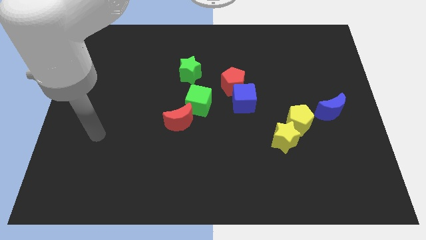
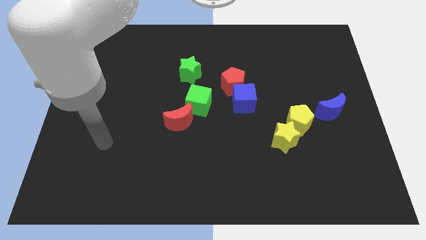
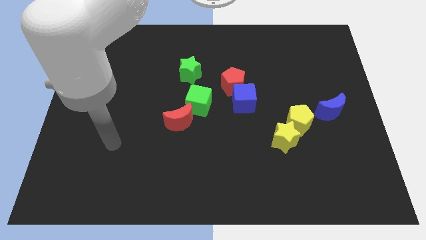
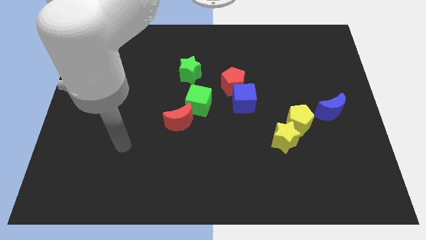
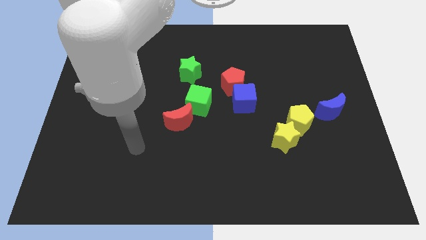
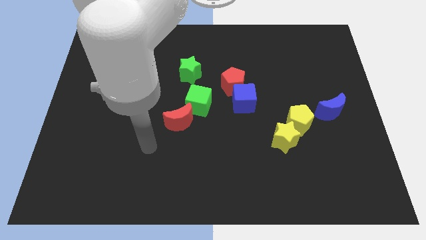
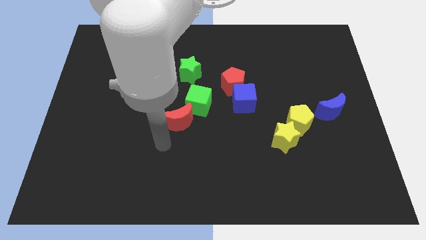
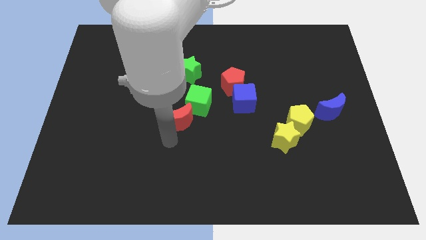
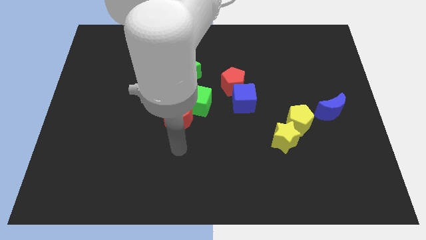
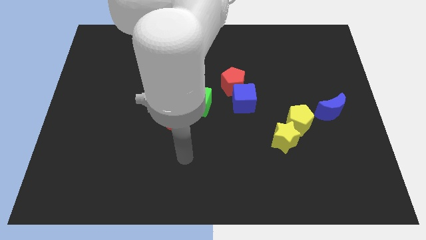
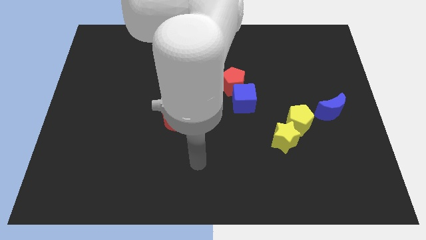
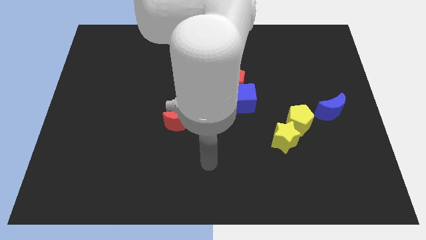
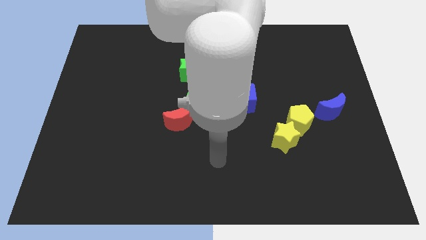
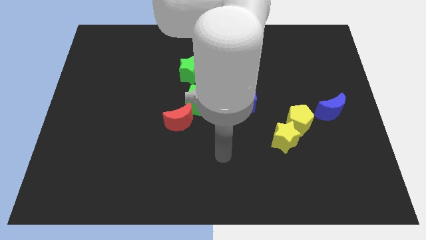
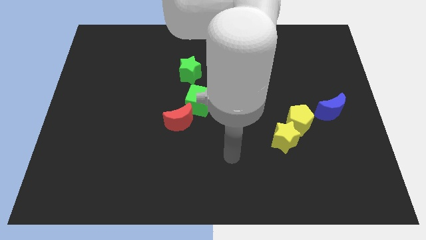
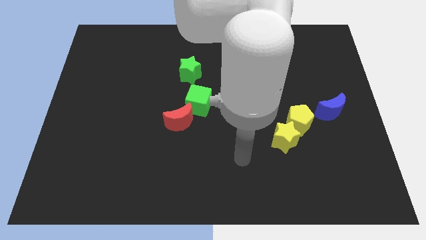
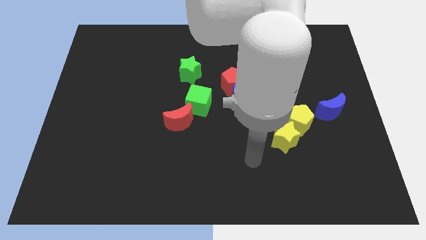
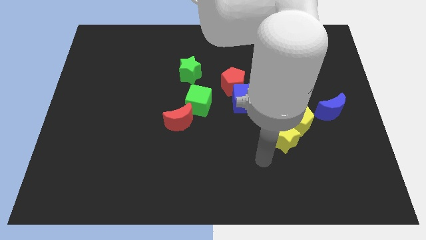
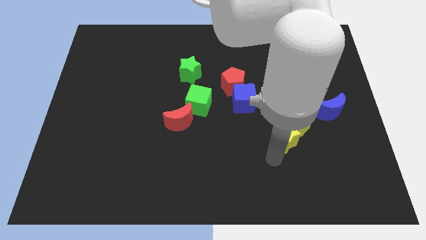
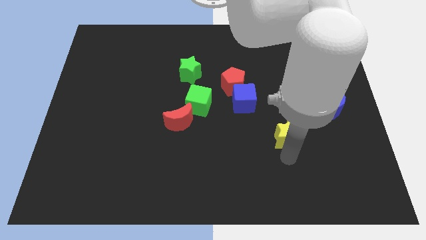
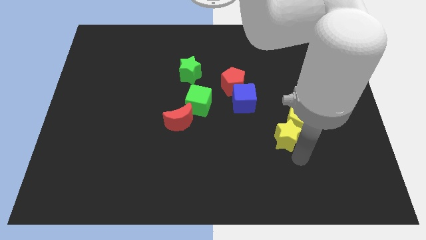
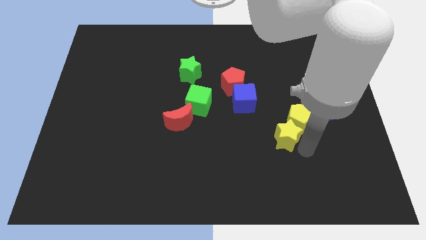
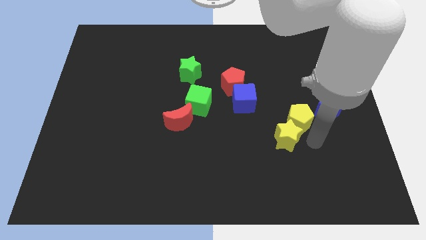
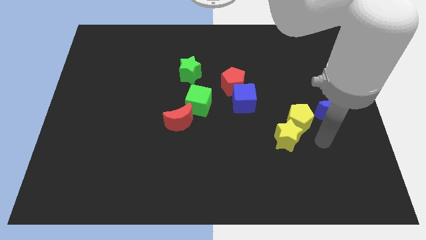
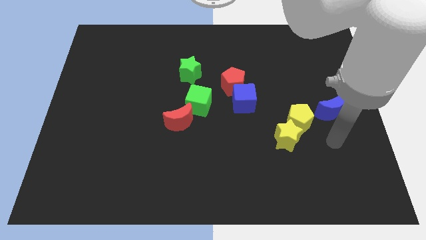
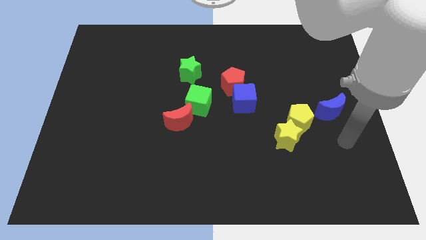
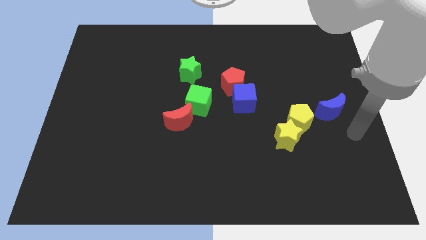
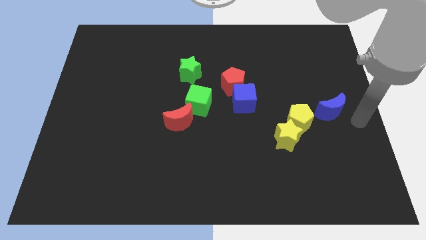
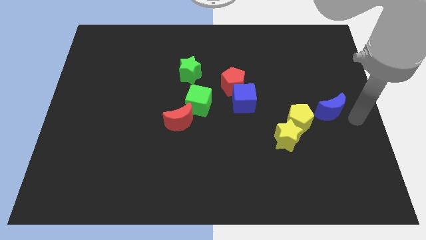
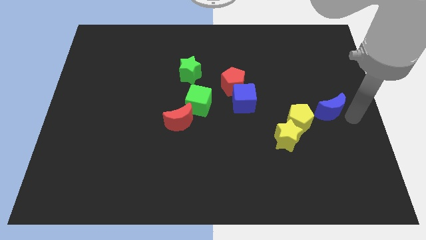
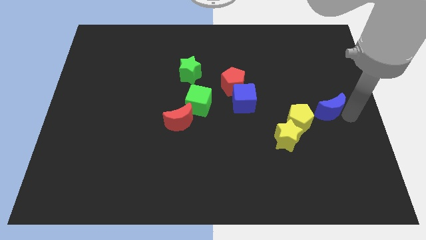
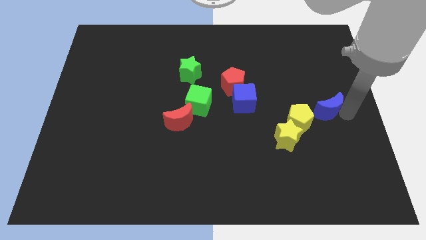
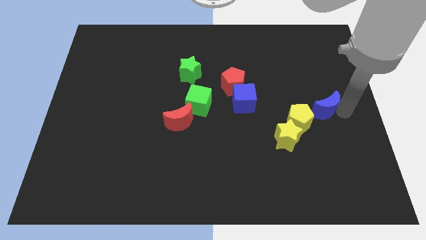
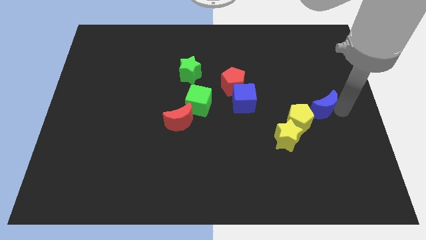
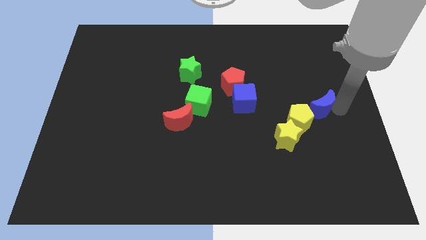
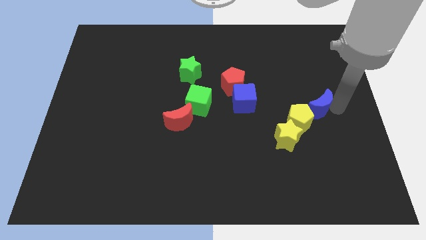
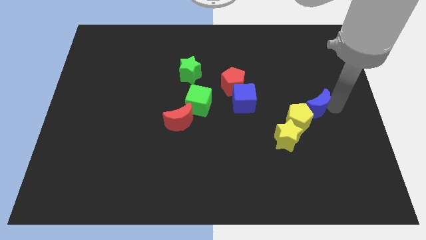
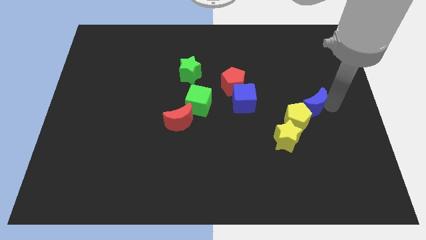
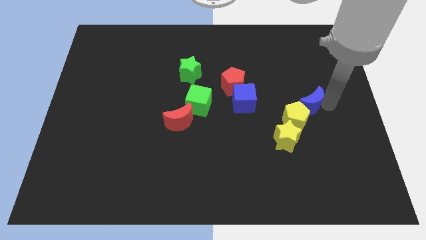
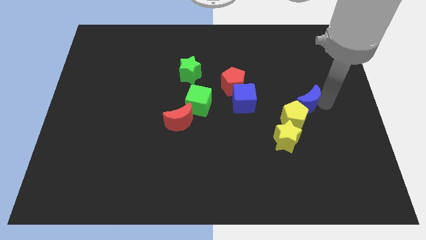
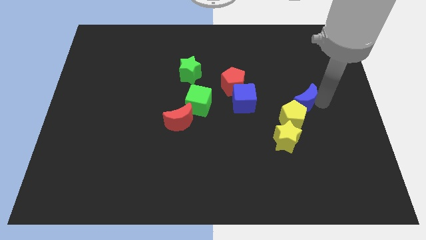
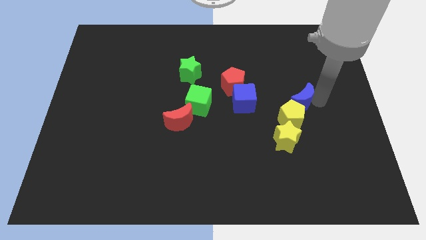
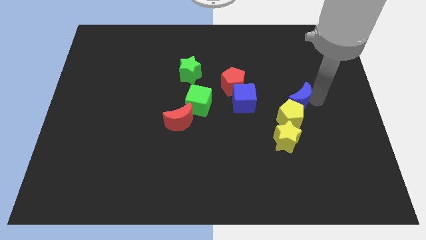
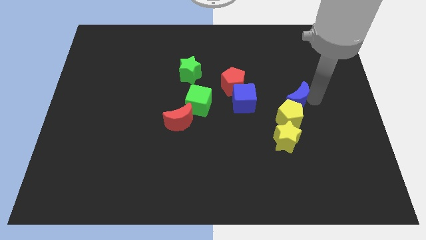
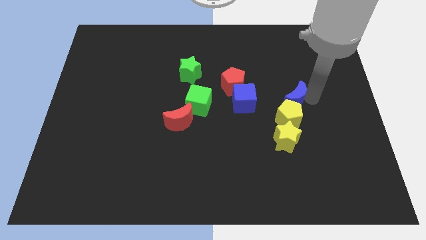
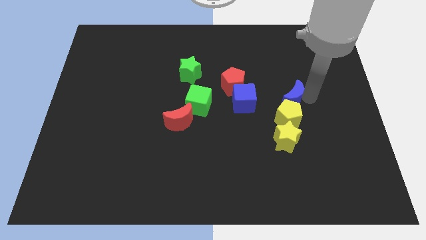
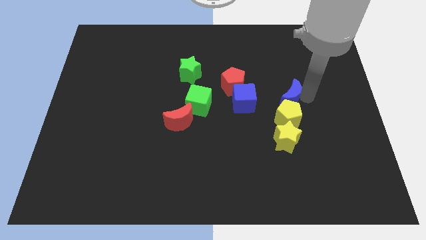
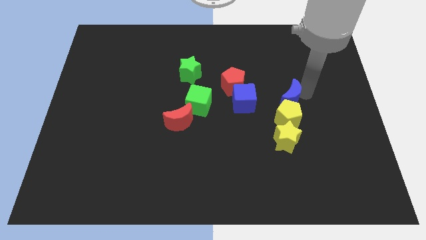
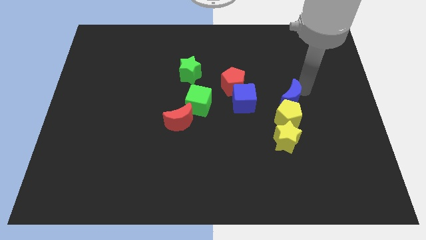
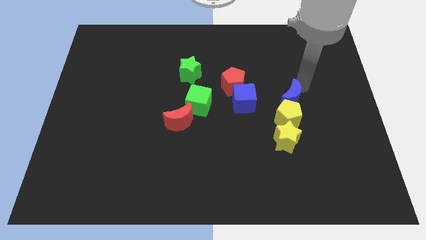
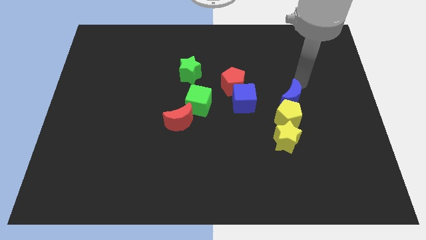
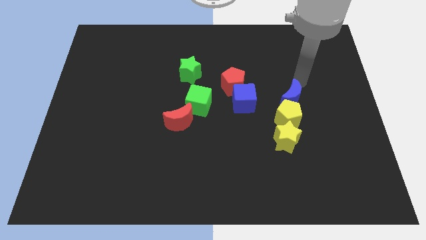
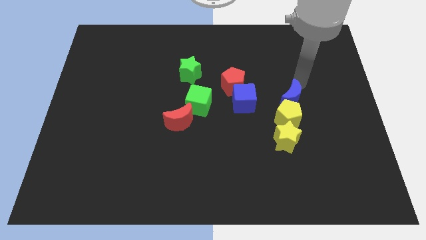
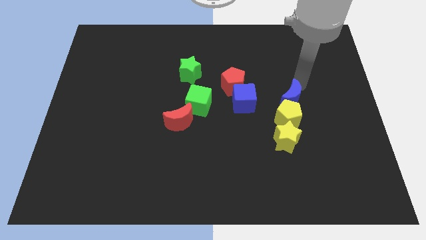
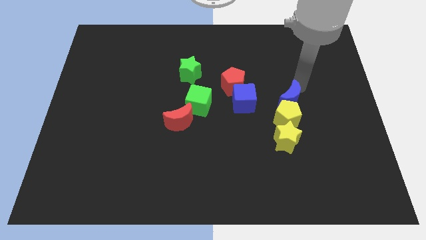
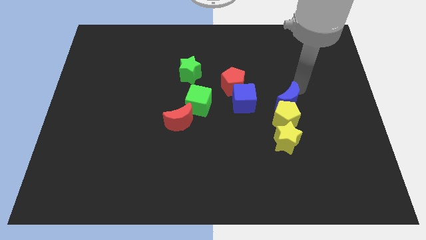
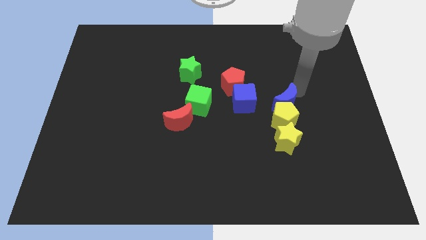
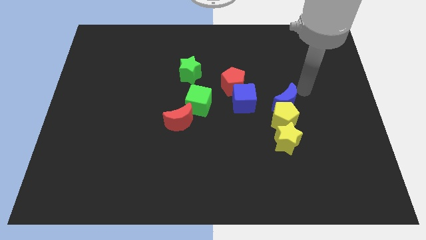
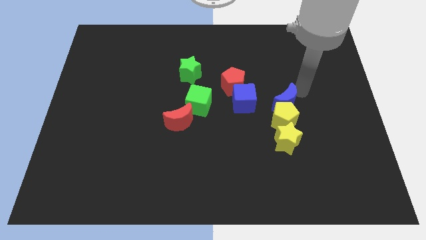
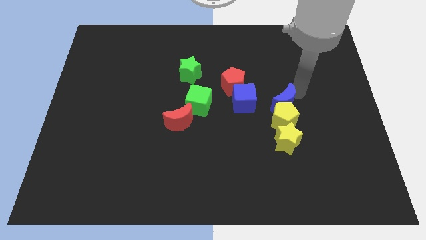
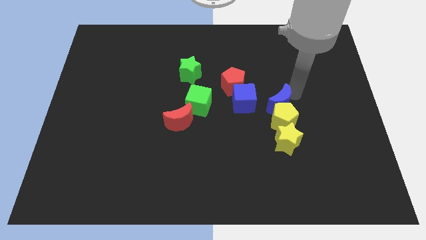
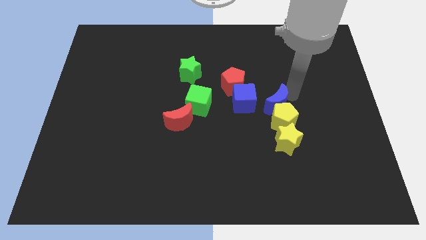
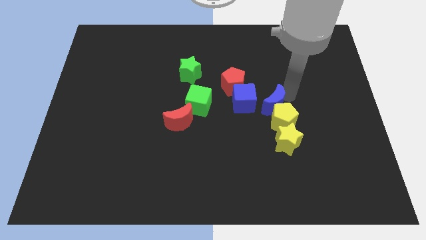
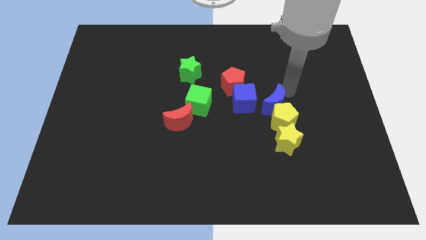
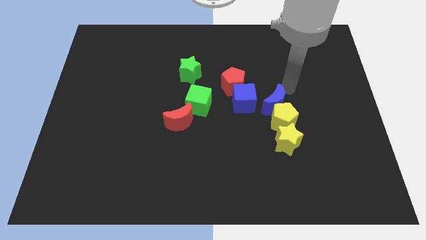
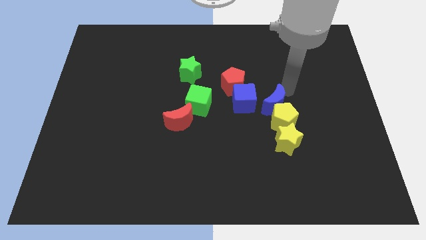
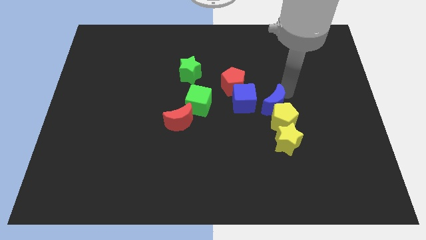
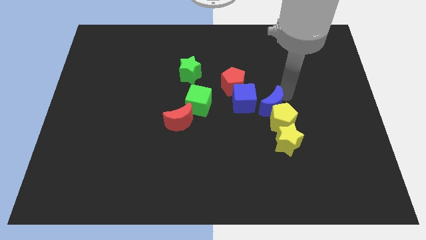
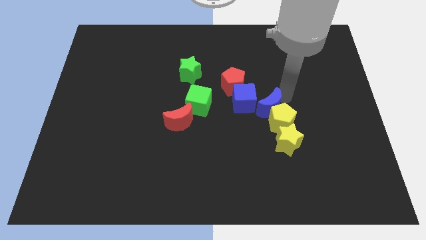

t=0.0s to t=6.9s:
move the blue moon to the top left side of the yellow star

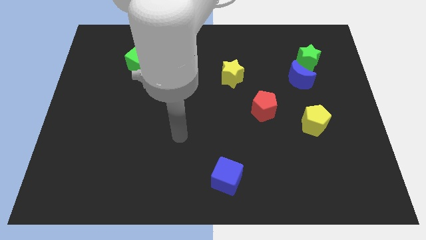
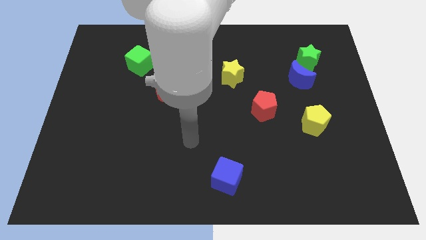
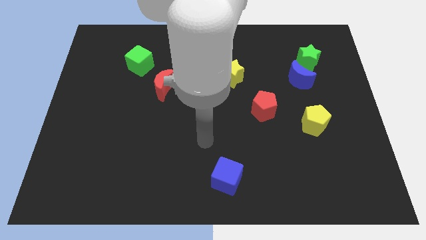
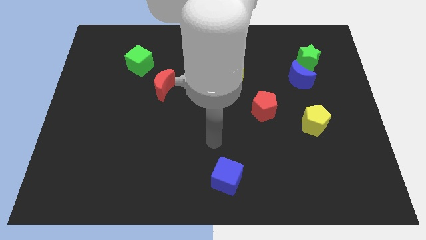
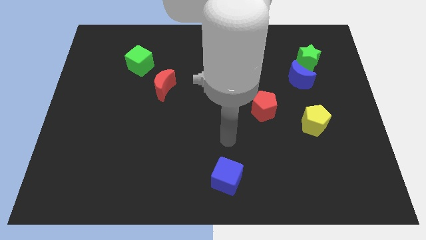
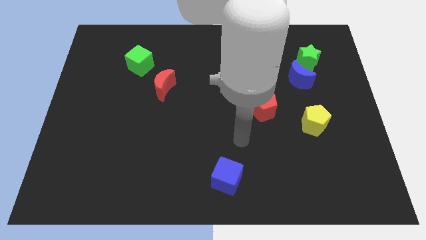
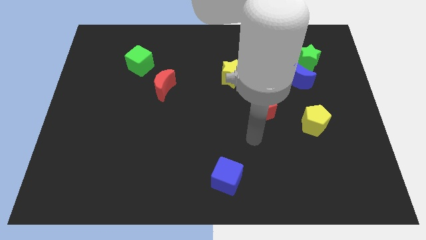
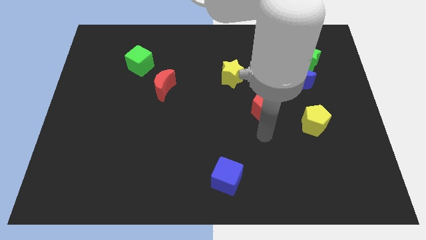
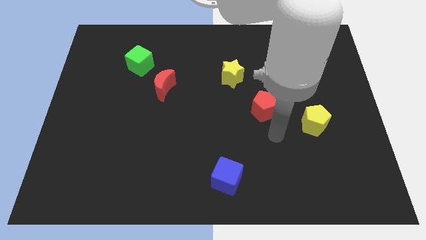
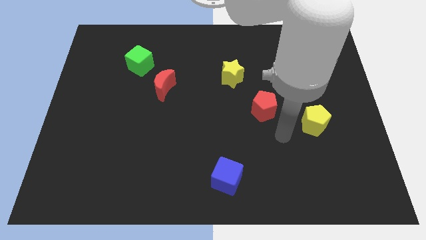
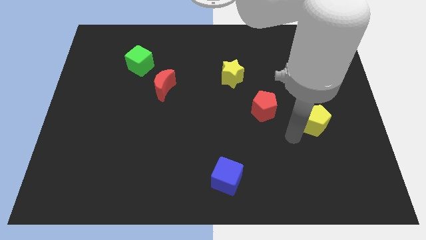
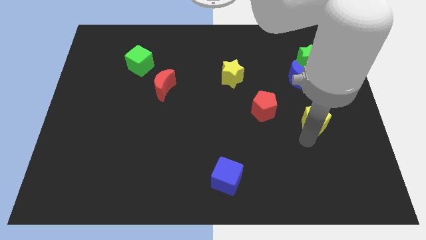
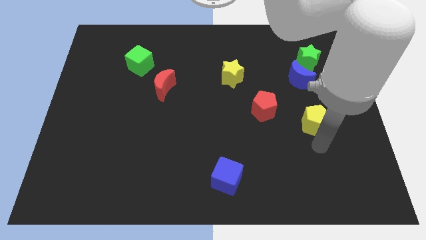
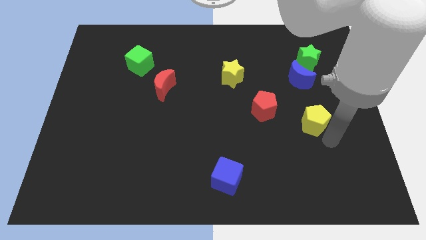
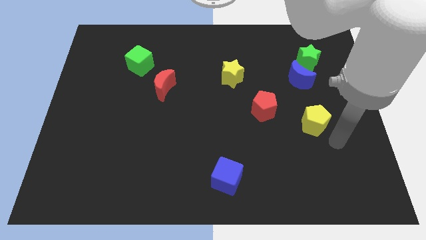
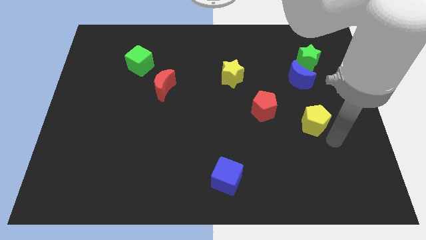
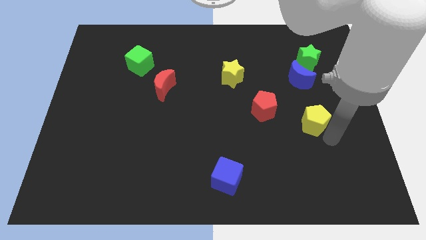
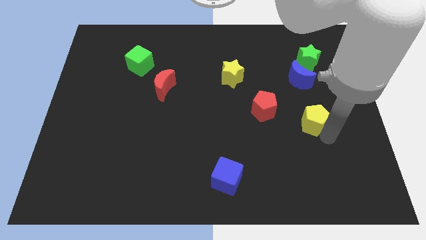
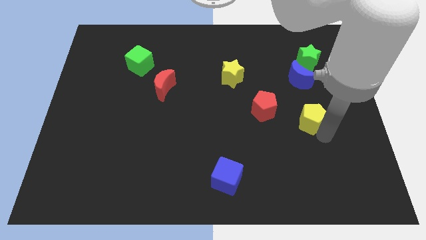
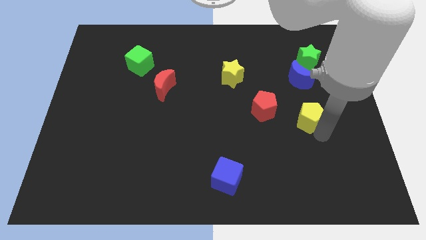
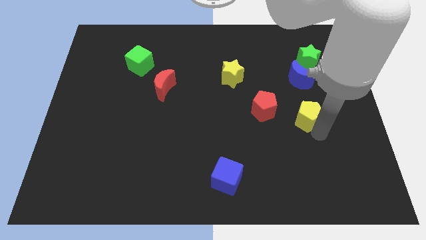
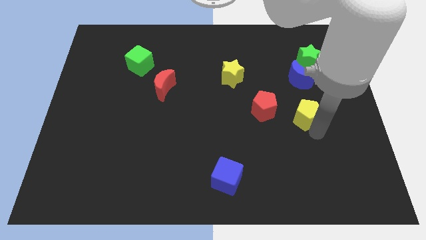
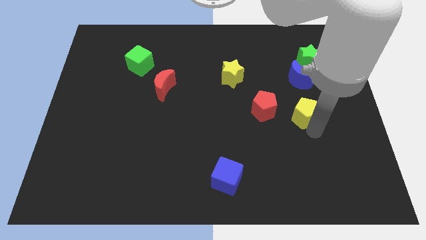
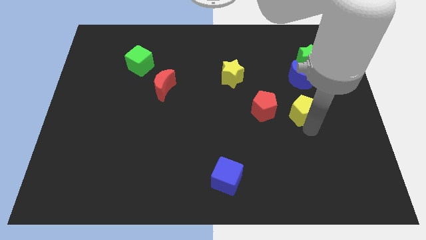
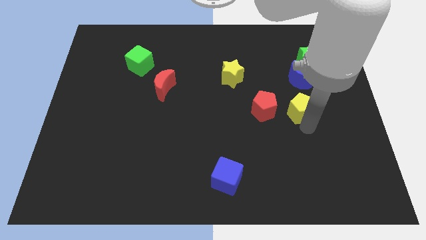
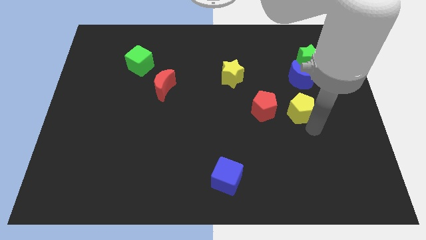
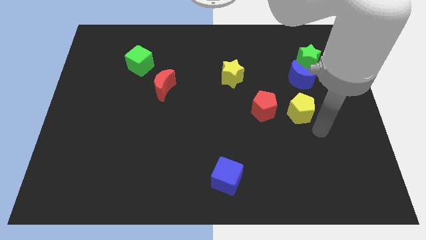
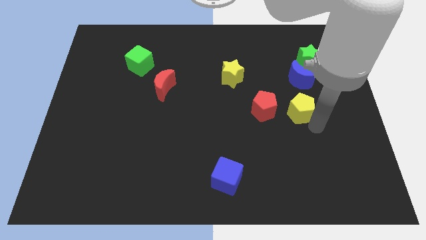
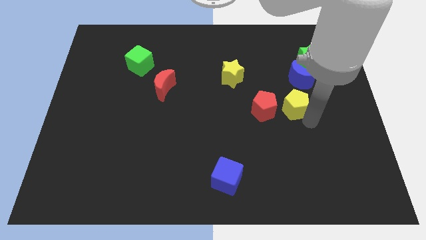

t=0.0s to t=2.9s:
move the yellow pentagon diagonally down and to the left of the blue moon
